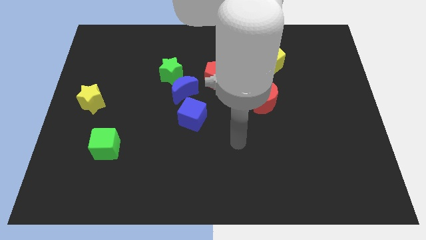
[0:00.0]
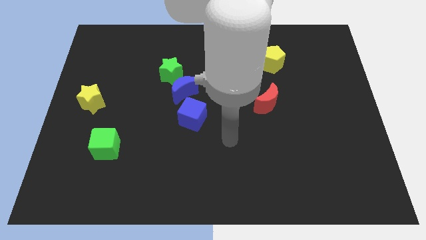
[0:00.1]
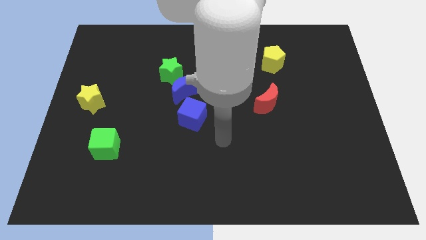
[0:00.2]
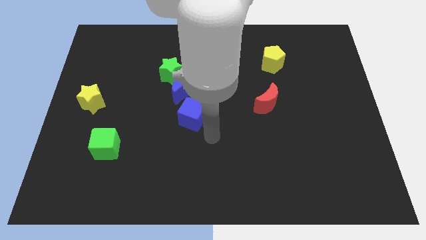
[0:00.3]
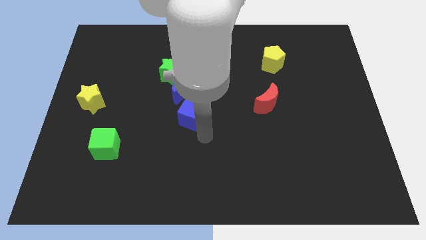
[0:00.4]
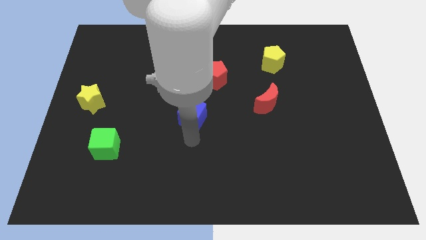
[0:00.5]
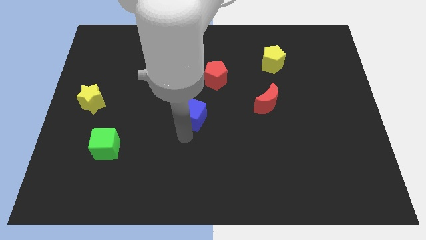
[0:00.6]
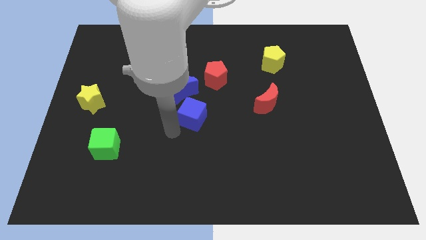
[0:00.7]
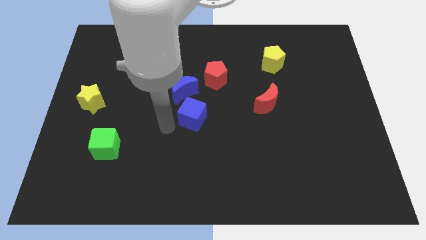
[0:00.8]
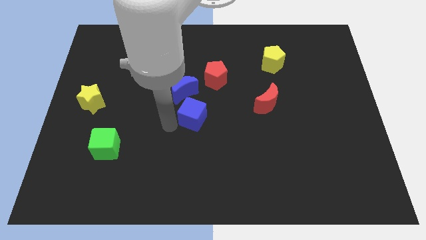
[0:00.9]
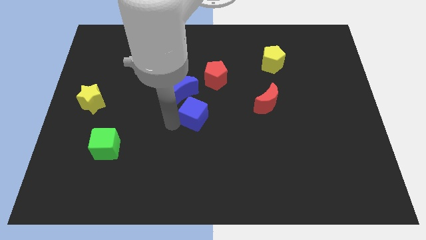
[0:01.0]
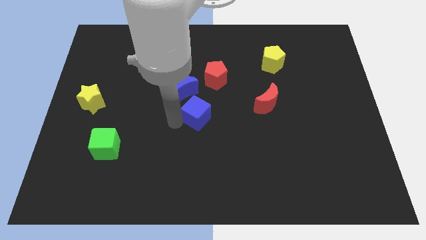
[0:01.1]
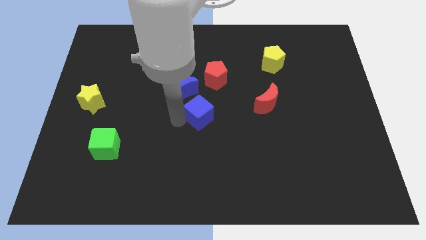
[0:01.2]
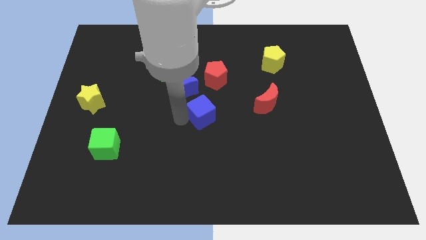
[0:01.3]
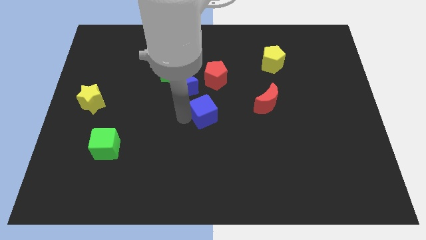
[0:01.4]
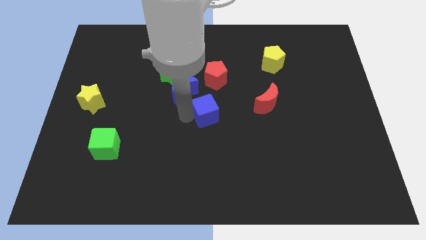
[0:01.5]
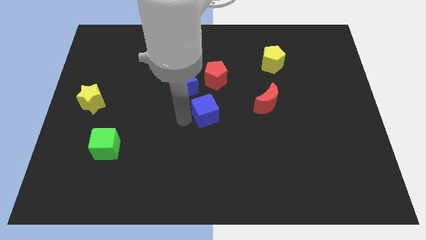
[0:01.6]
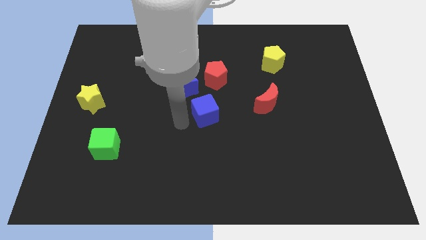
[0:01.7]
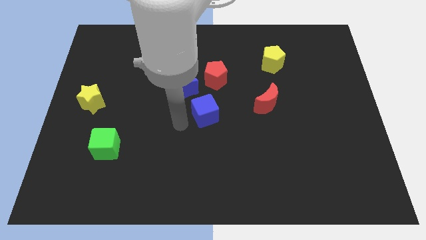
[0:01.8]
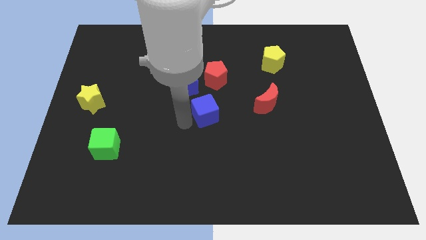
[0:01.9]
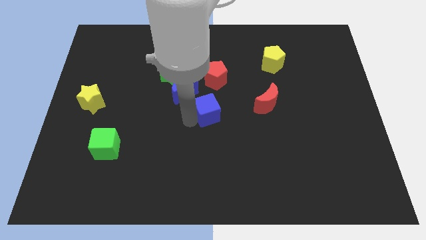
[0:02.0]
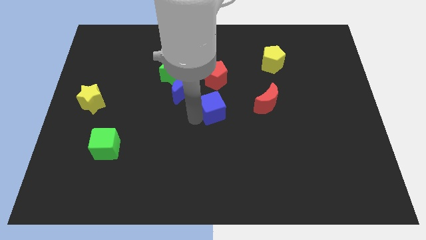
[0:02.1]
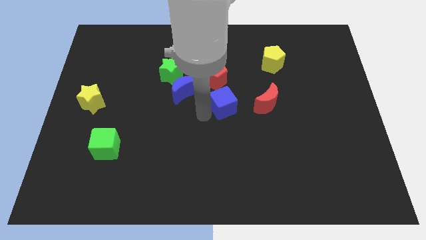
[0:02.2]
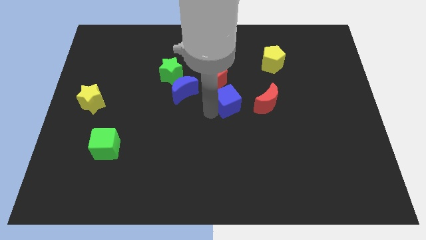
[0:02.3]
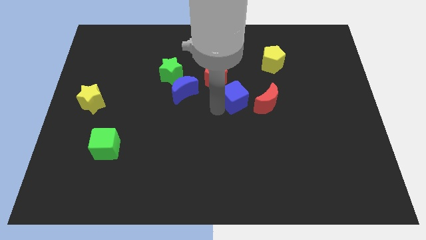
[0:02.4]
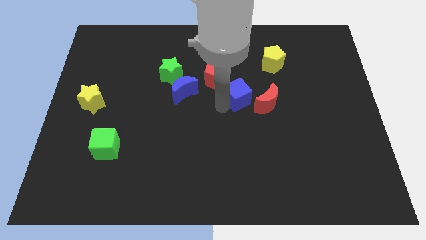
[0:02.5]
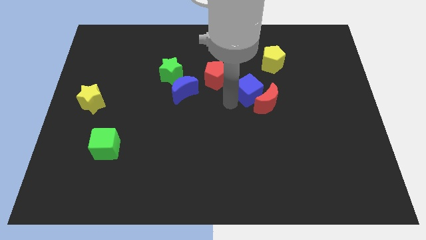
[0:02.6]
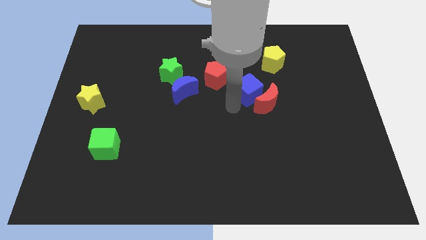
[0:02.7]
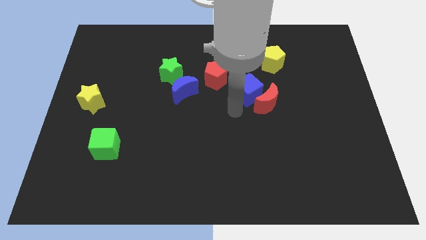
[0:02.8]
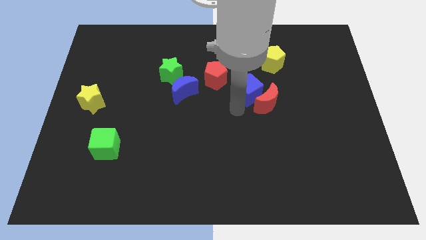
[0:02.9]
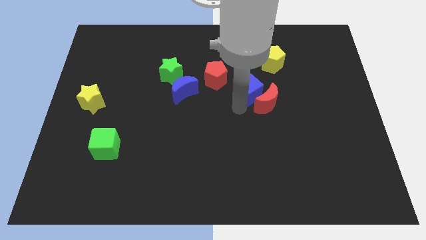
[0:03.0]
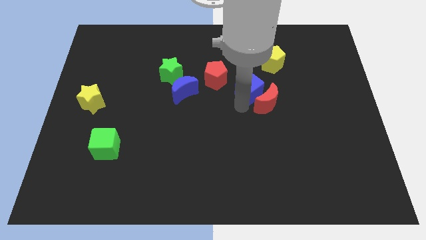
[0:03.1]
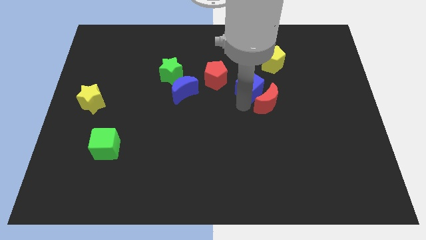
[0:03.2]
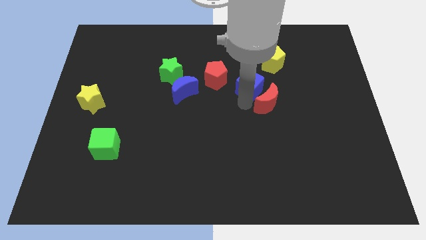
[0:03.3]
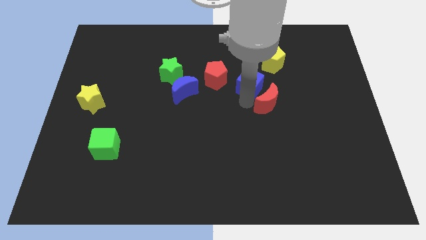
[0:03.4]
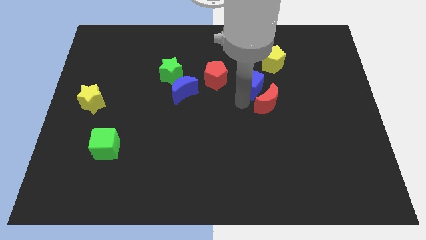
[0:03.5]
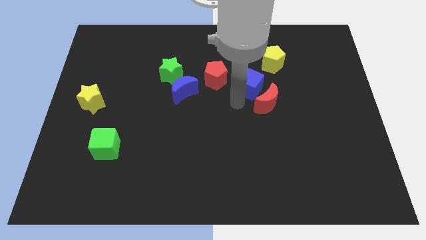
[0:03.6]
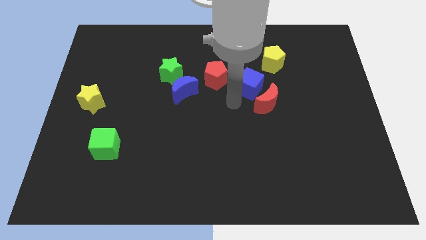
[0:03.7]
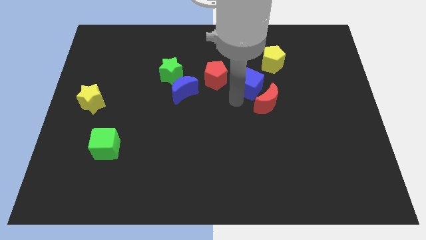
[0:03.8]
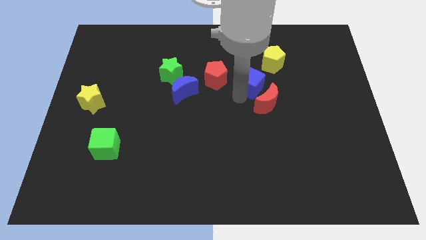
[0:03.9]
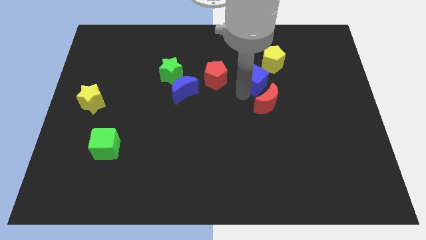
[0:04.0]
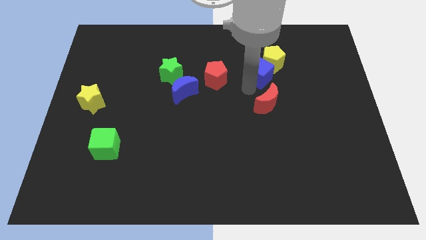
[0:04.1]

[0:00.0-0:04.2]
put the blue cube towards the yellow pentagon

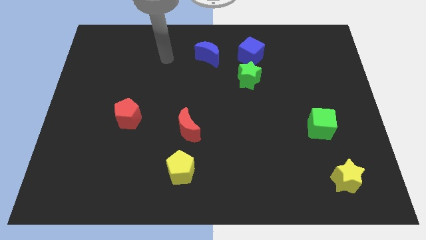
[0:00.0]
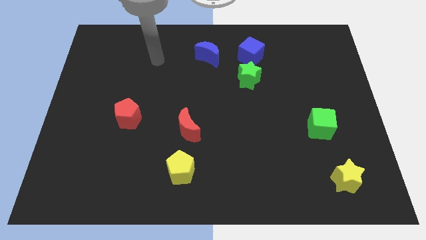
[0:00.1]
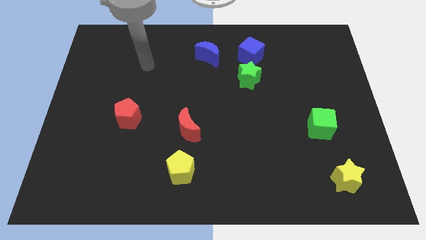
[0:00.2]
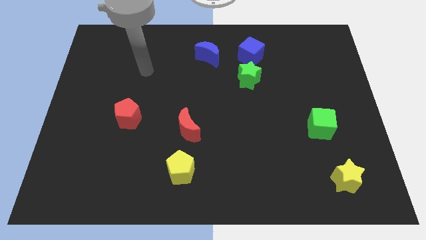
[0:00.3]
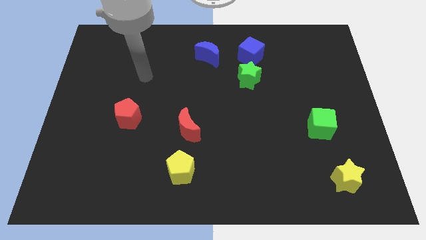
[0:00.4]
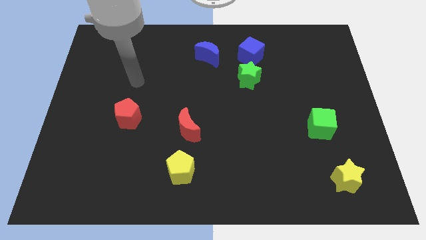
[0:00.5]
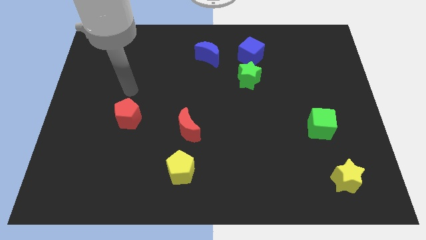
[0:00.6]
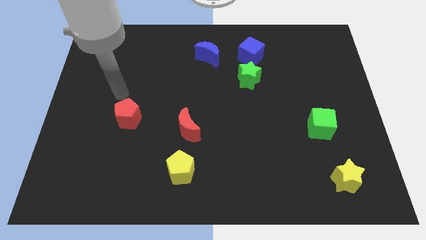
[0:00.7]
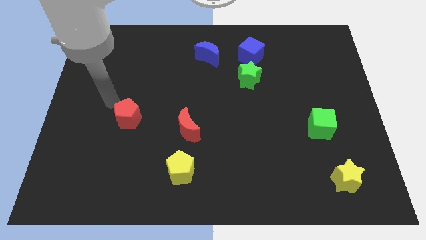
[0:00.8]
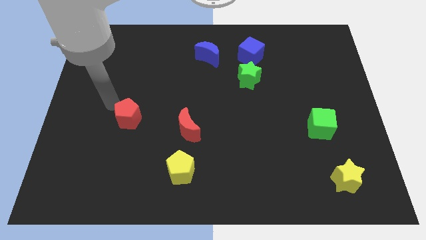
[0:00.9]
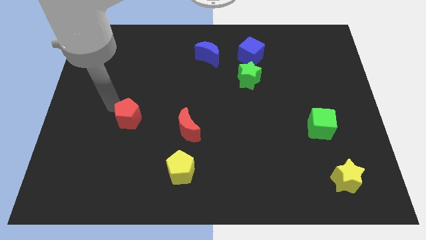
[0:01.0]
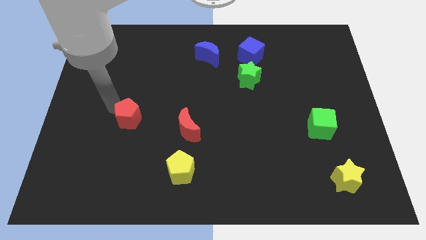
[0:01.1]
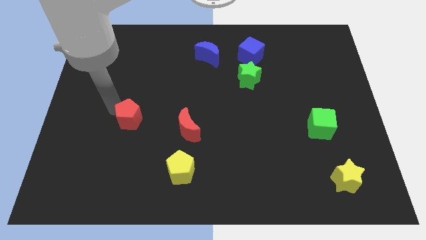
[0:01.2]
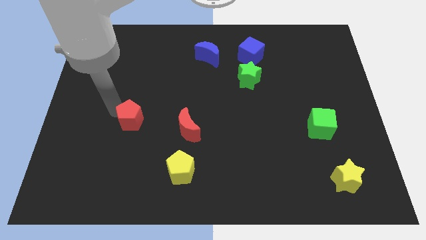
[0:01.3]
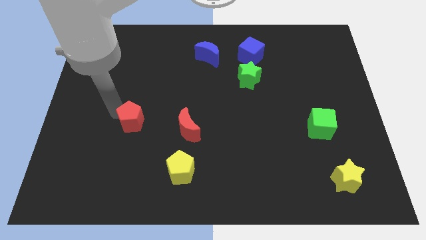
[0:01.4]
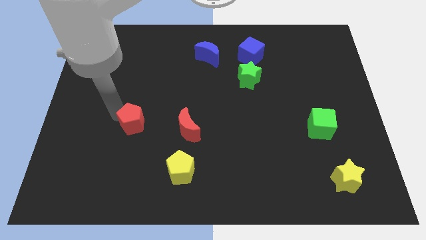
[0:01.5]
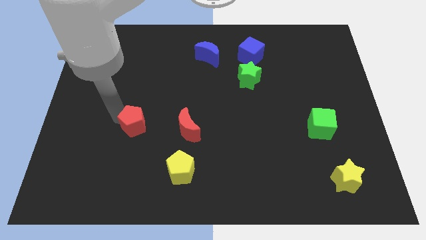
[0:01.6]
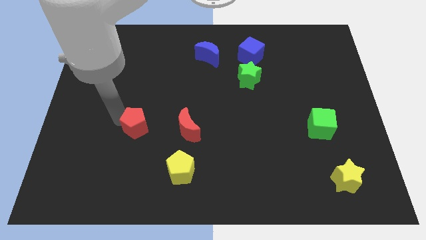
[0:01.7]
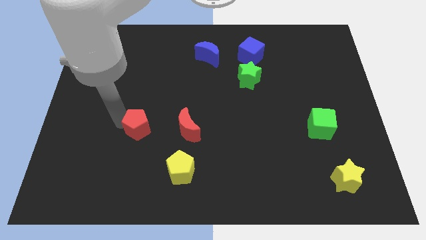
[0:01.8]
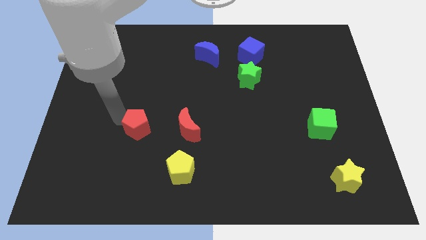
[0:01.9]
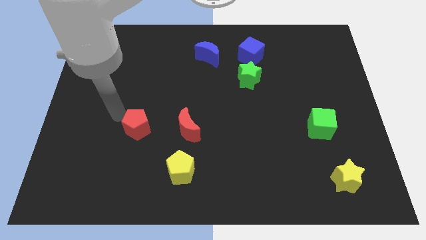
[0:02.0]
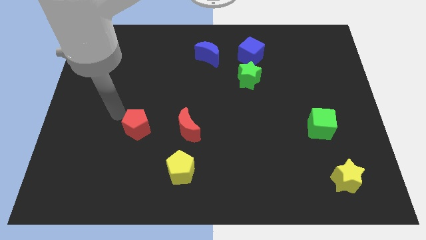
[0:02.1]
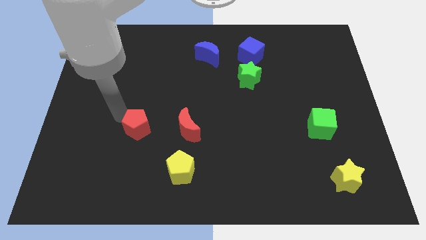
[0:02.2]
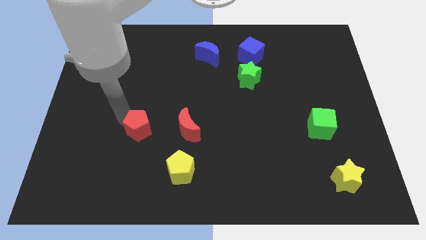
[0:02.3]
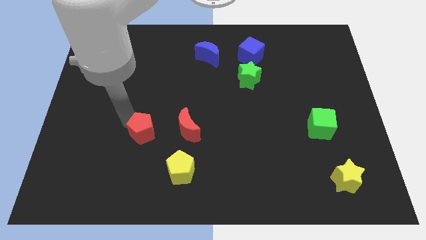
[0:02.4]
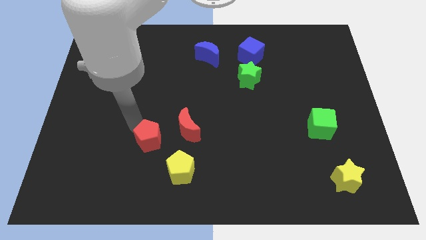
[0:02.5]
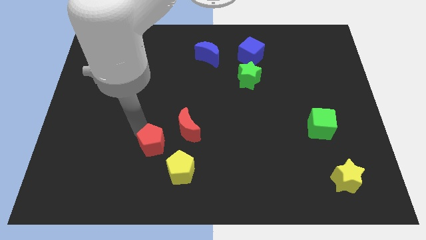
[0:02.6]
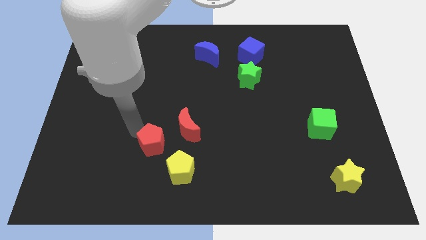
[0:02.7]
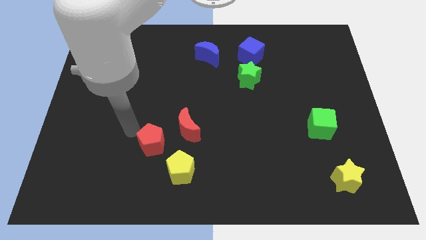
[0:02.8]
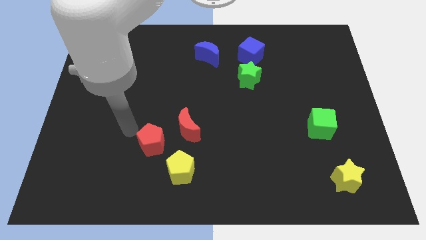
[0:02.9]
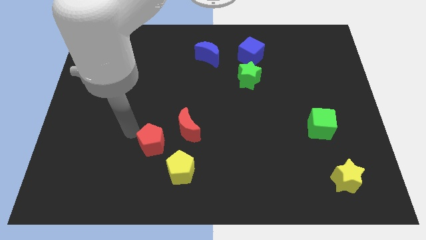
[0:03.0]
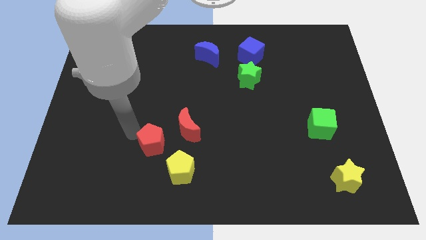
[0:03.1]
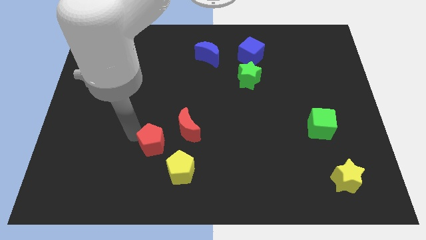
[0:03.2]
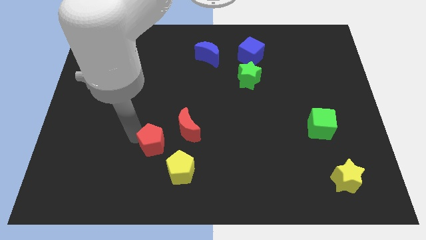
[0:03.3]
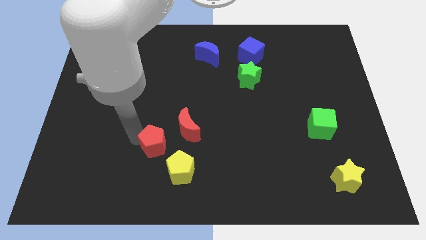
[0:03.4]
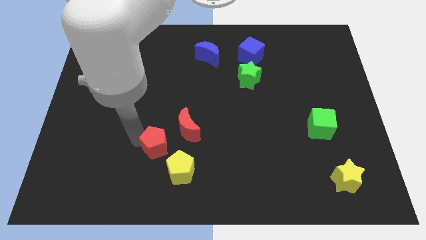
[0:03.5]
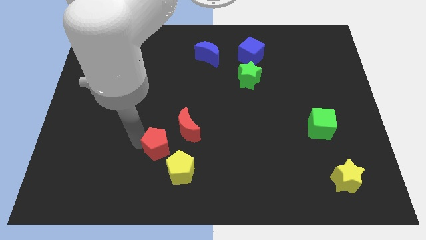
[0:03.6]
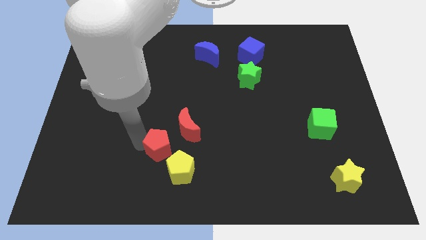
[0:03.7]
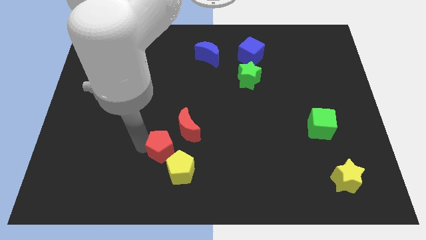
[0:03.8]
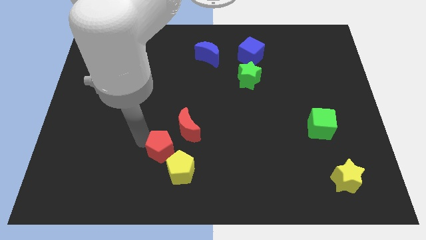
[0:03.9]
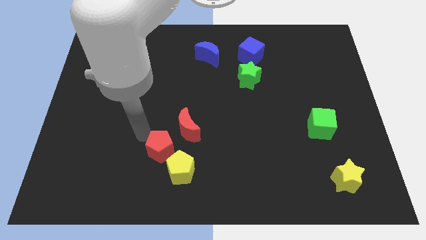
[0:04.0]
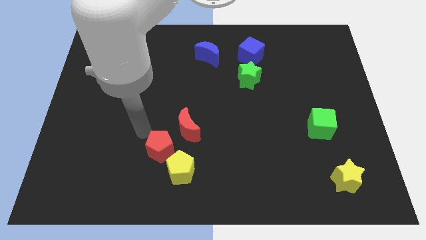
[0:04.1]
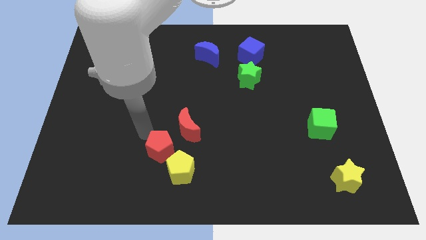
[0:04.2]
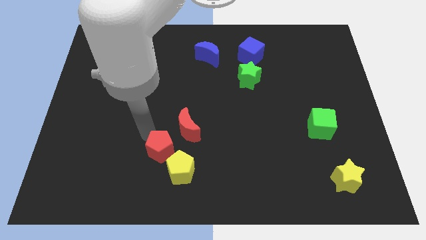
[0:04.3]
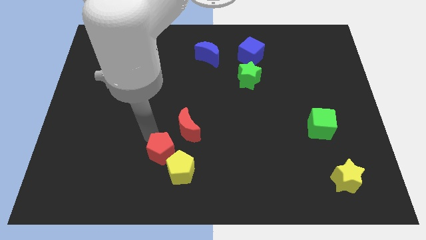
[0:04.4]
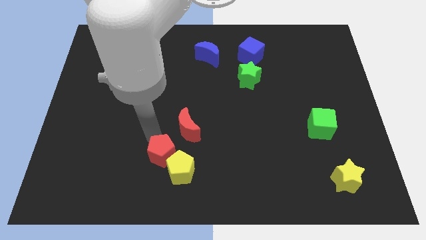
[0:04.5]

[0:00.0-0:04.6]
put the red pentagon close to the yellow pentagon
